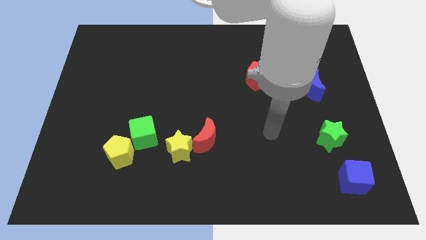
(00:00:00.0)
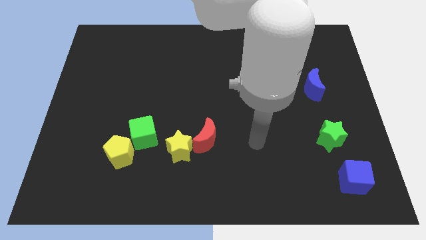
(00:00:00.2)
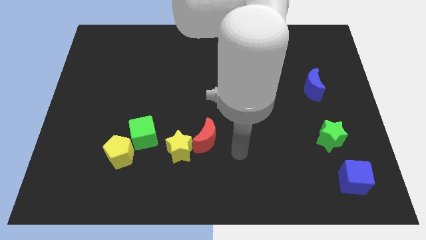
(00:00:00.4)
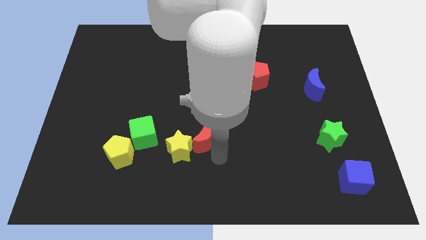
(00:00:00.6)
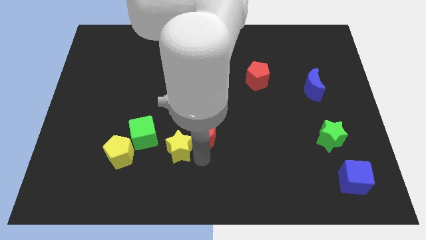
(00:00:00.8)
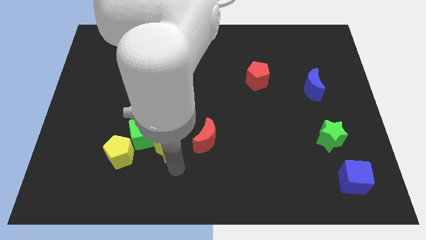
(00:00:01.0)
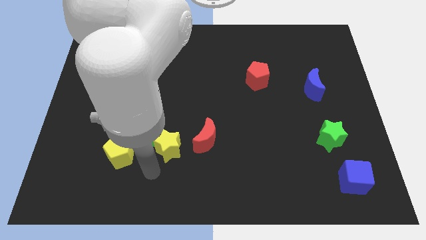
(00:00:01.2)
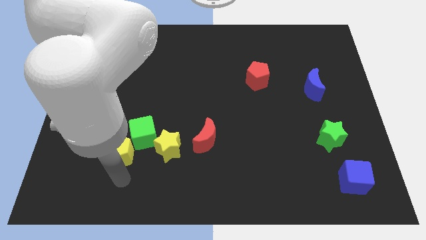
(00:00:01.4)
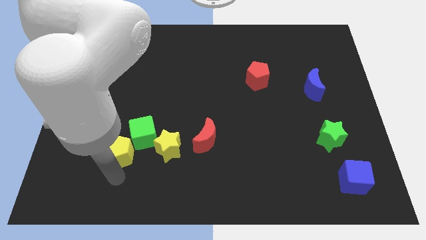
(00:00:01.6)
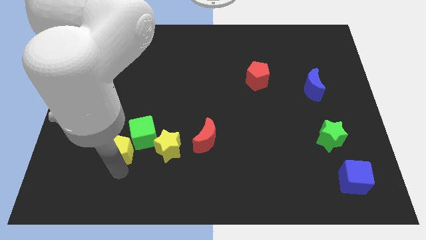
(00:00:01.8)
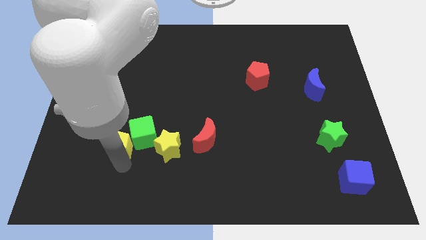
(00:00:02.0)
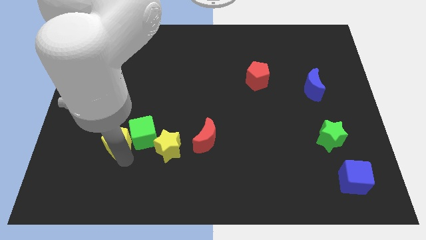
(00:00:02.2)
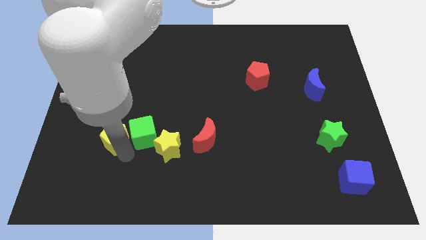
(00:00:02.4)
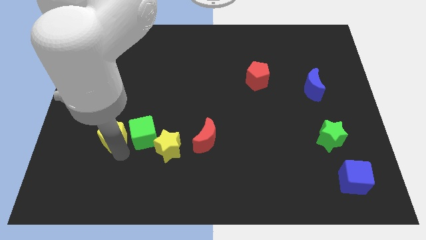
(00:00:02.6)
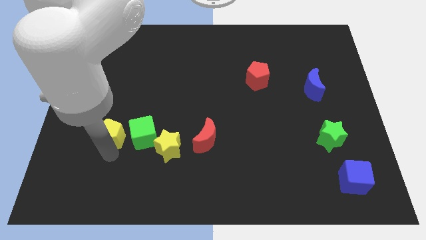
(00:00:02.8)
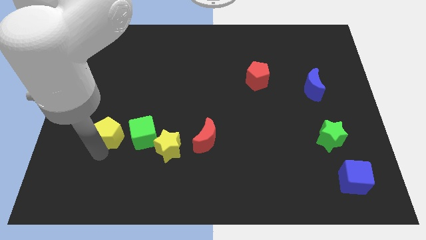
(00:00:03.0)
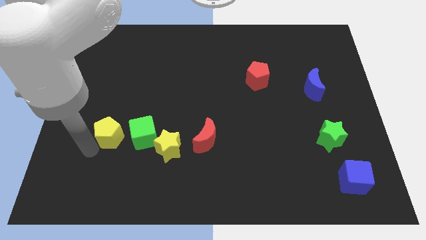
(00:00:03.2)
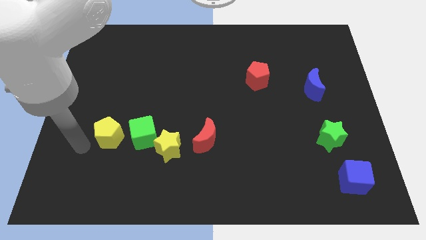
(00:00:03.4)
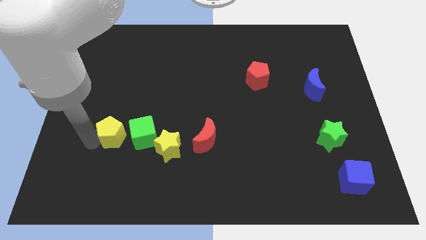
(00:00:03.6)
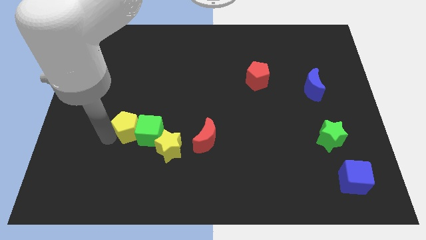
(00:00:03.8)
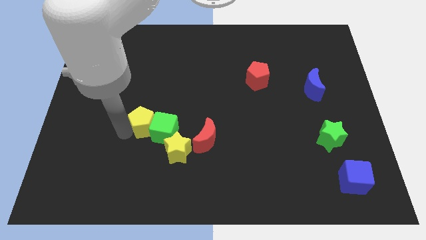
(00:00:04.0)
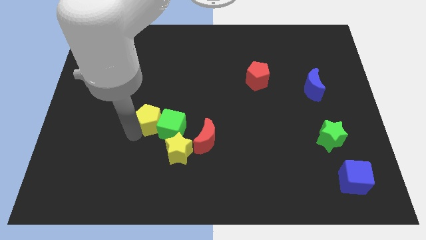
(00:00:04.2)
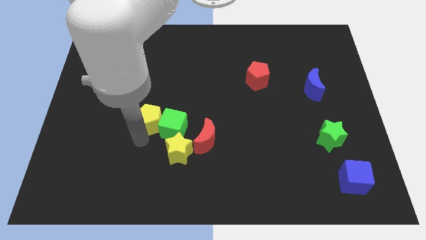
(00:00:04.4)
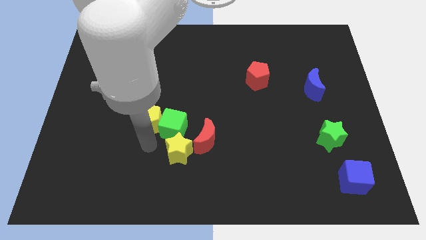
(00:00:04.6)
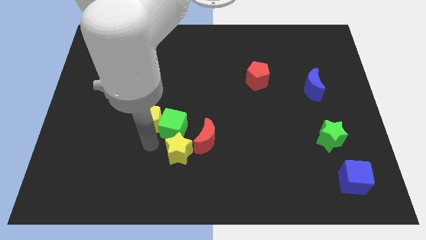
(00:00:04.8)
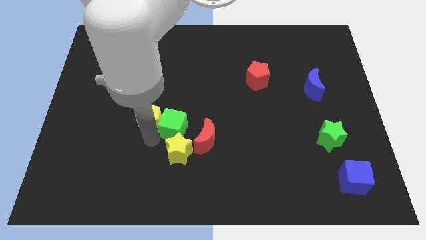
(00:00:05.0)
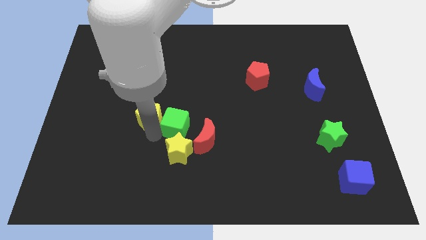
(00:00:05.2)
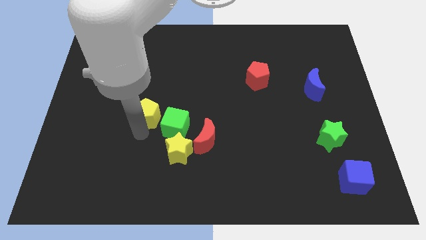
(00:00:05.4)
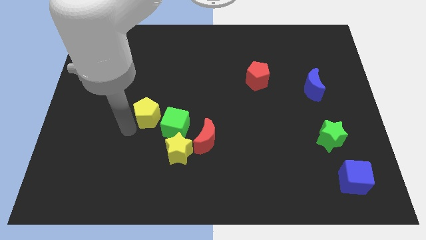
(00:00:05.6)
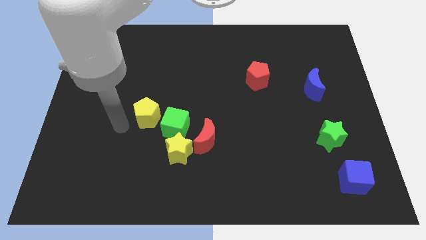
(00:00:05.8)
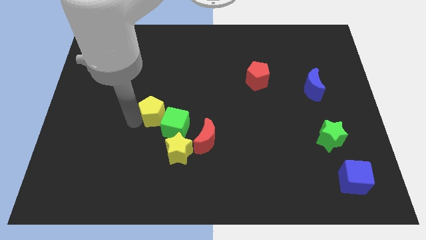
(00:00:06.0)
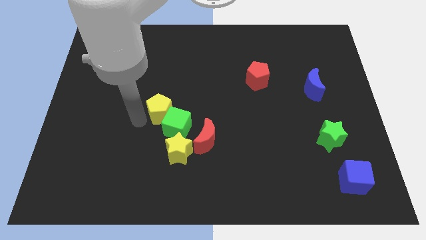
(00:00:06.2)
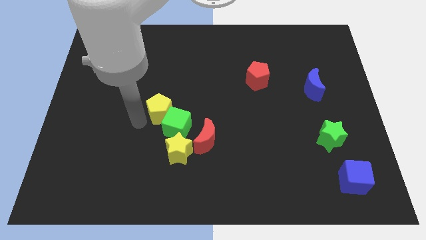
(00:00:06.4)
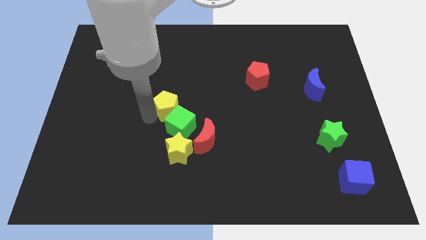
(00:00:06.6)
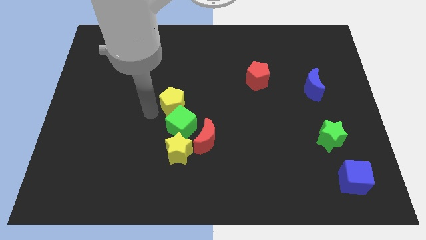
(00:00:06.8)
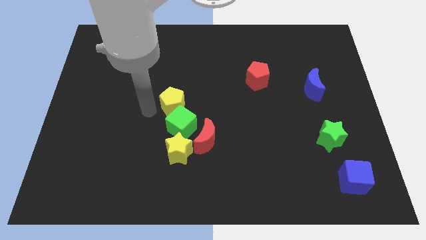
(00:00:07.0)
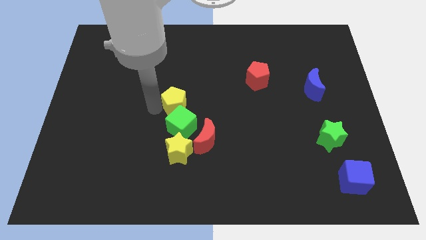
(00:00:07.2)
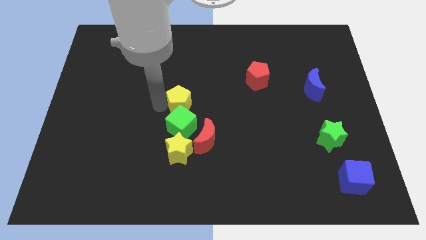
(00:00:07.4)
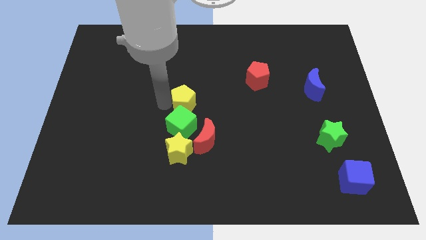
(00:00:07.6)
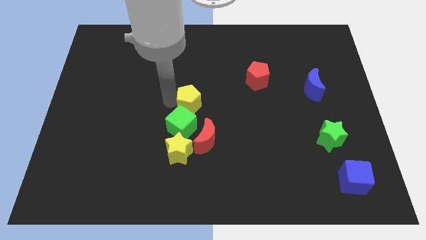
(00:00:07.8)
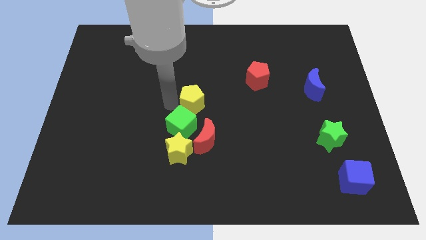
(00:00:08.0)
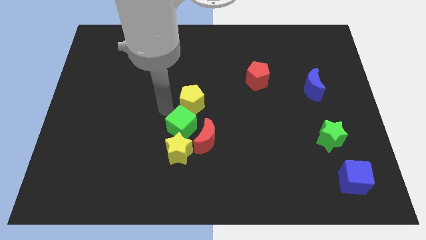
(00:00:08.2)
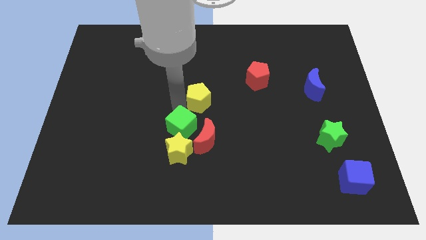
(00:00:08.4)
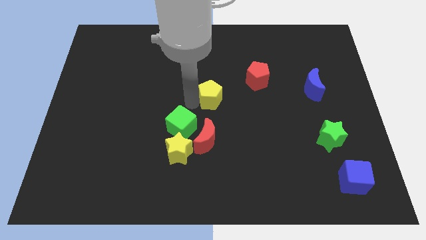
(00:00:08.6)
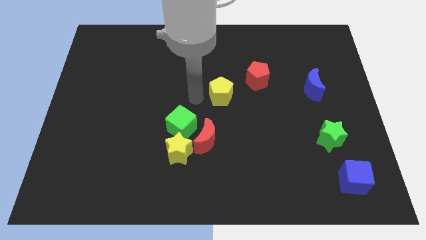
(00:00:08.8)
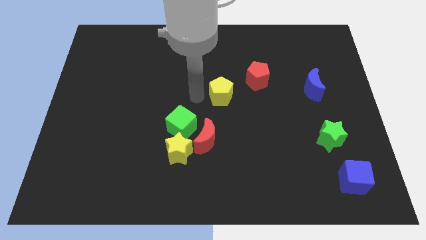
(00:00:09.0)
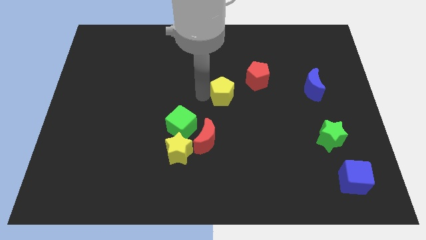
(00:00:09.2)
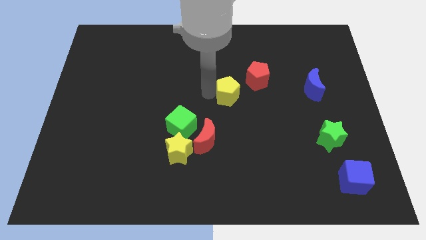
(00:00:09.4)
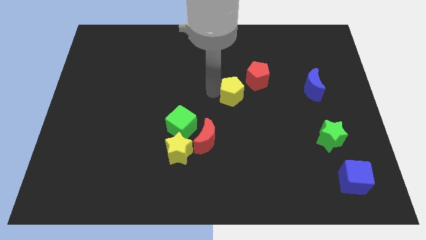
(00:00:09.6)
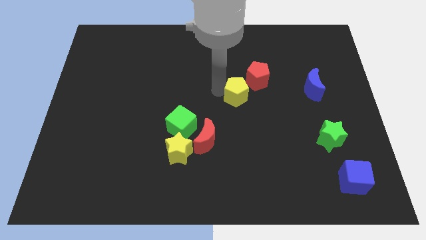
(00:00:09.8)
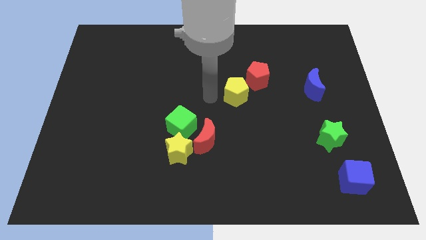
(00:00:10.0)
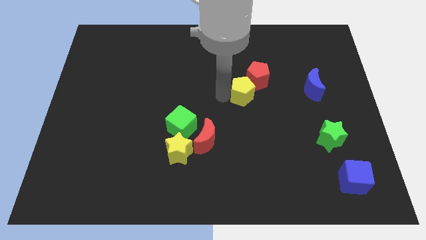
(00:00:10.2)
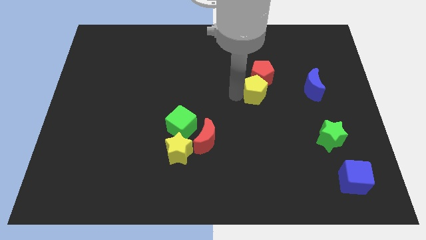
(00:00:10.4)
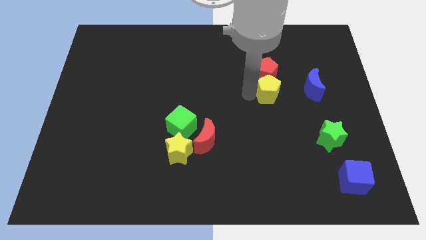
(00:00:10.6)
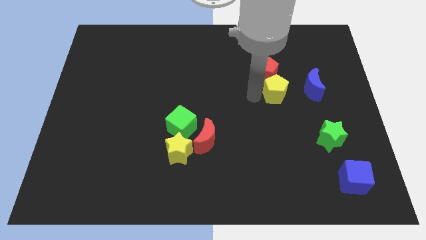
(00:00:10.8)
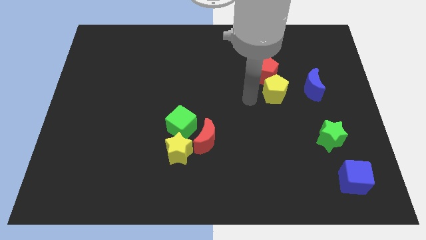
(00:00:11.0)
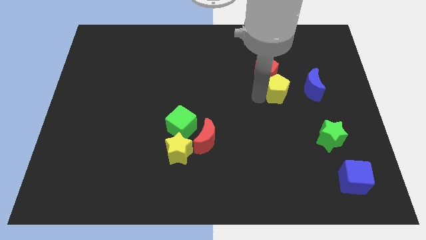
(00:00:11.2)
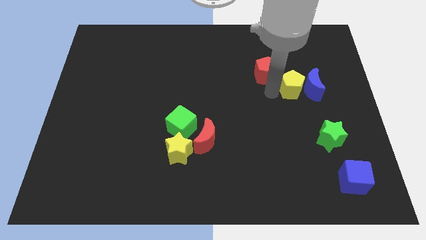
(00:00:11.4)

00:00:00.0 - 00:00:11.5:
push the yellow pentagon to the blue moon

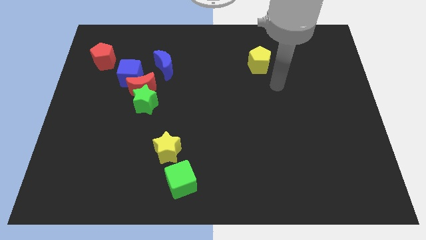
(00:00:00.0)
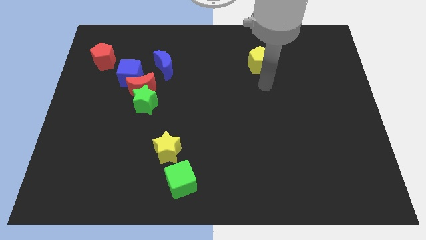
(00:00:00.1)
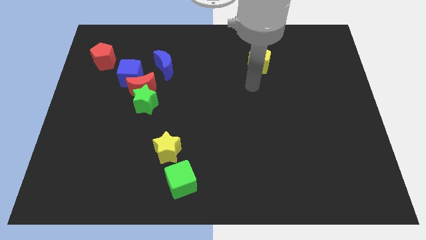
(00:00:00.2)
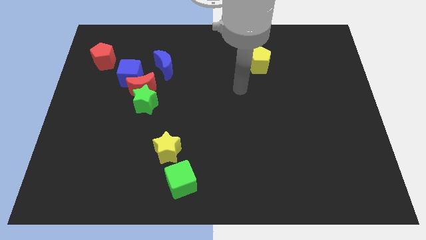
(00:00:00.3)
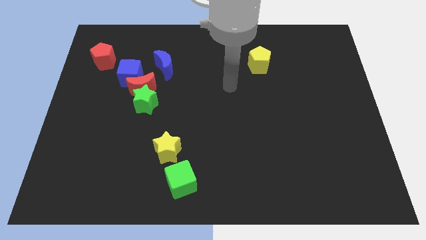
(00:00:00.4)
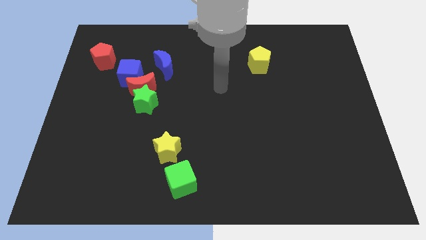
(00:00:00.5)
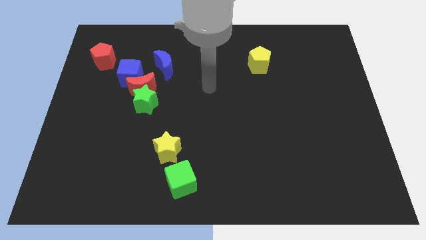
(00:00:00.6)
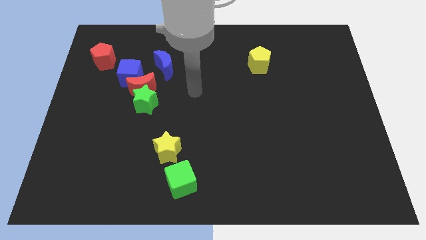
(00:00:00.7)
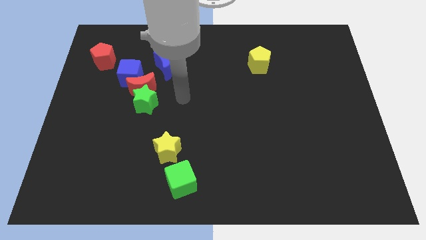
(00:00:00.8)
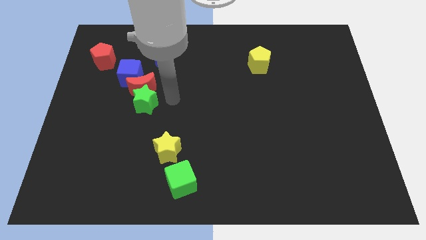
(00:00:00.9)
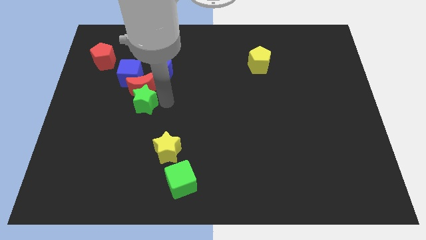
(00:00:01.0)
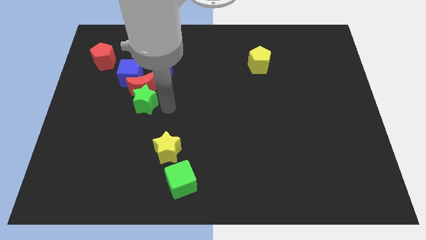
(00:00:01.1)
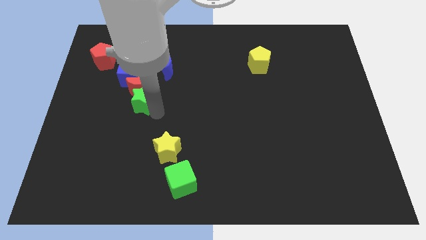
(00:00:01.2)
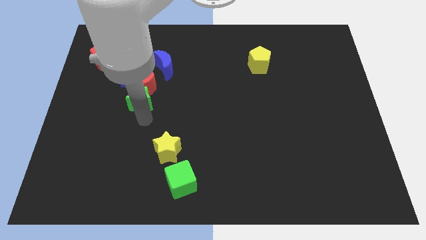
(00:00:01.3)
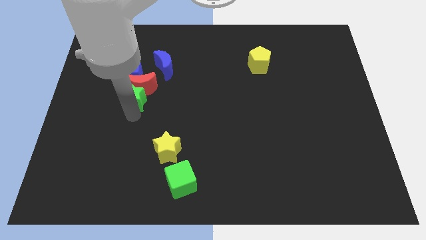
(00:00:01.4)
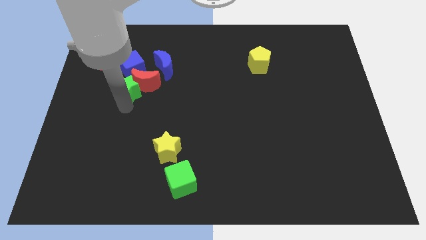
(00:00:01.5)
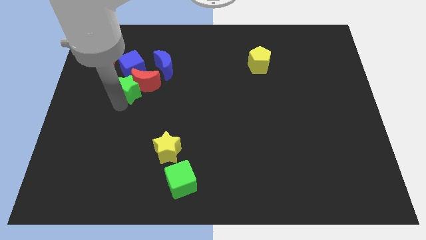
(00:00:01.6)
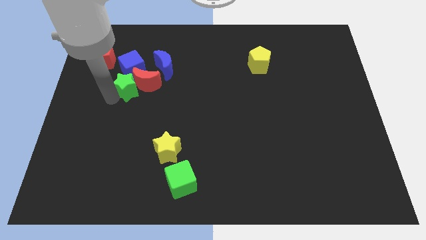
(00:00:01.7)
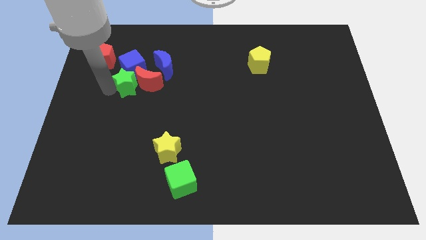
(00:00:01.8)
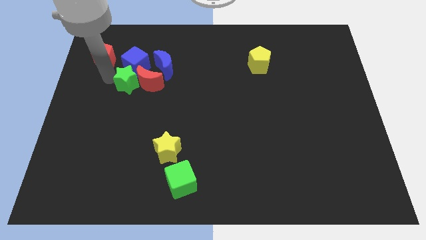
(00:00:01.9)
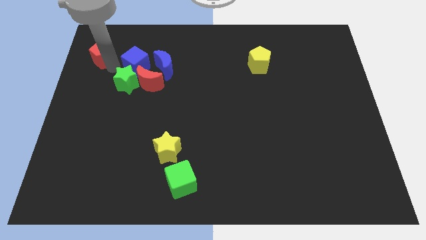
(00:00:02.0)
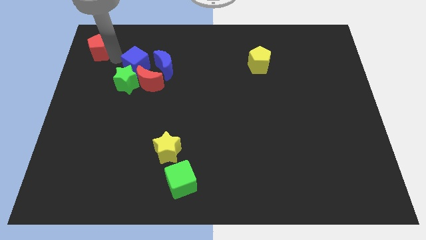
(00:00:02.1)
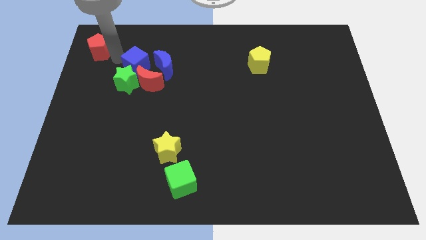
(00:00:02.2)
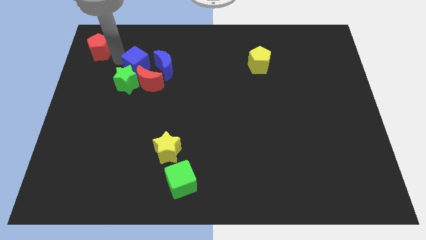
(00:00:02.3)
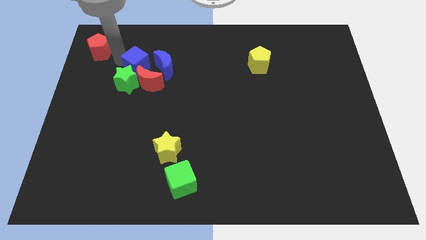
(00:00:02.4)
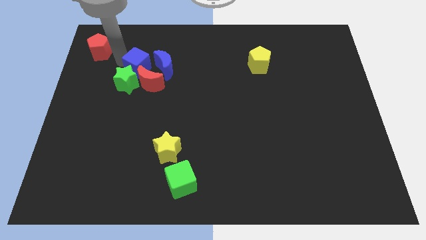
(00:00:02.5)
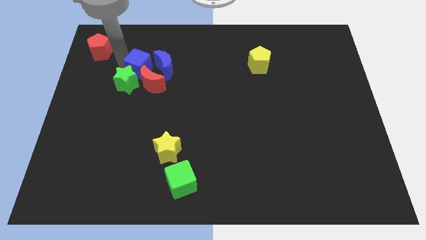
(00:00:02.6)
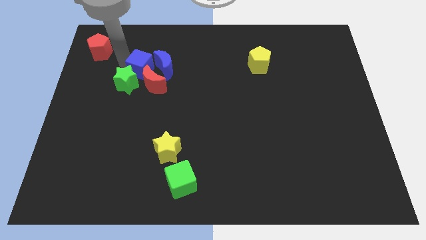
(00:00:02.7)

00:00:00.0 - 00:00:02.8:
push the blue cube to the blue moon
